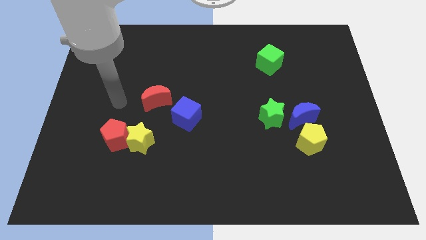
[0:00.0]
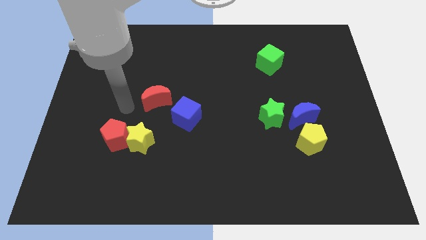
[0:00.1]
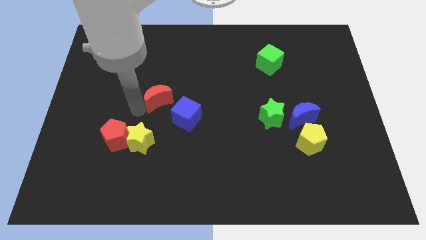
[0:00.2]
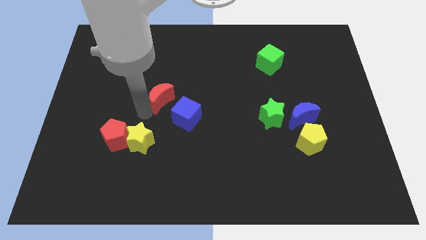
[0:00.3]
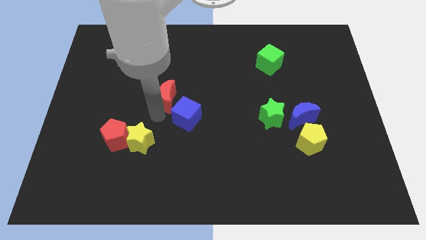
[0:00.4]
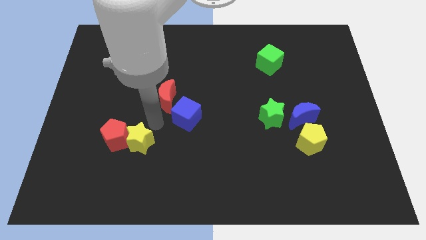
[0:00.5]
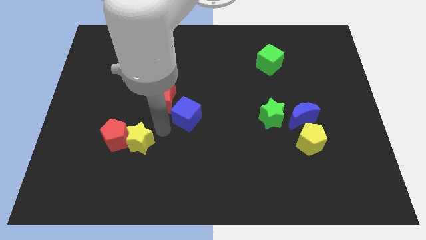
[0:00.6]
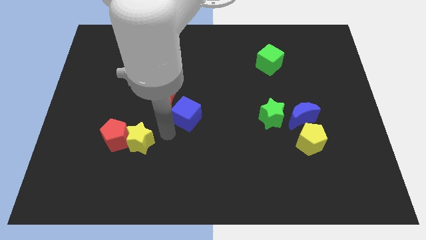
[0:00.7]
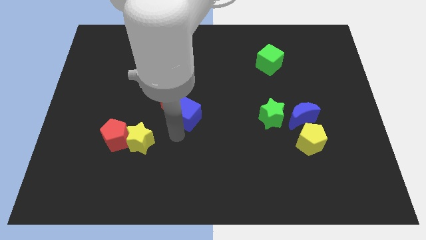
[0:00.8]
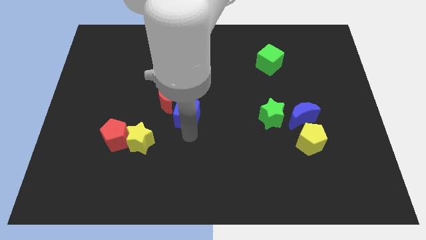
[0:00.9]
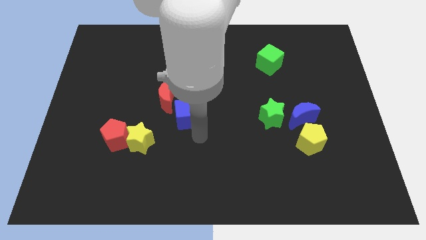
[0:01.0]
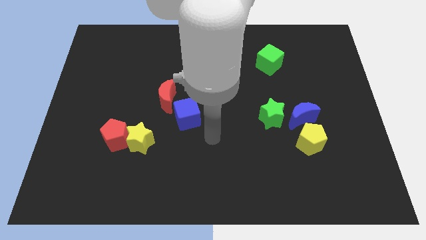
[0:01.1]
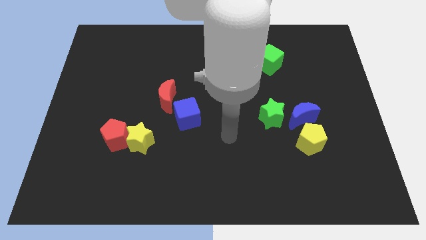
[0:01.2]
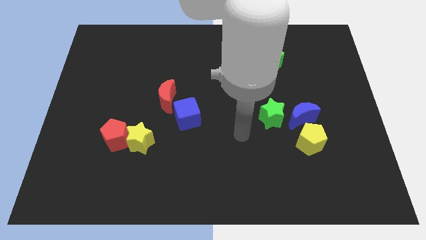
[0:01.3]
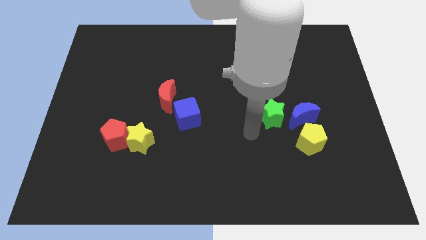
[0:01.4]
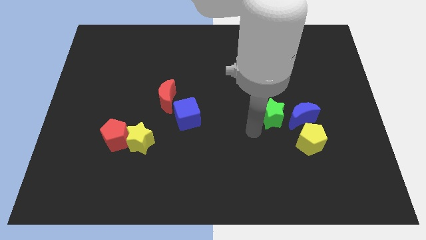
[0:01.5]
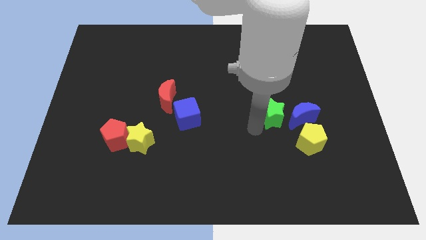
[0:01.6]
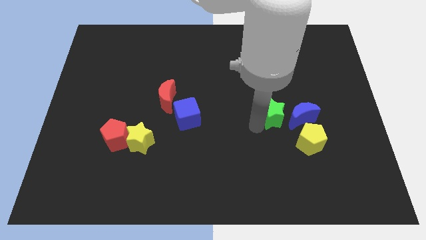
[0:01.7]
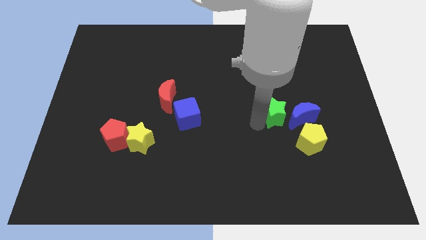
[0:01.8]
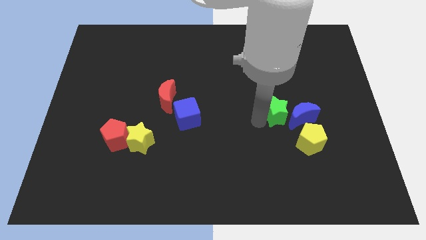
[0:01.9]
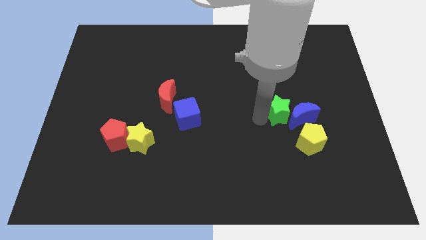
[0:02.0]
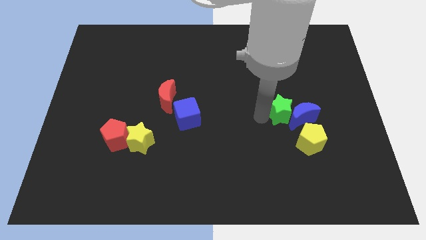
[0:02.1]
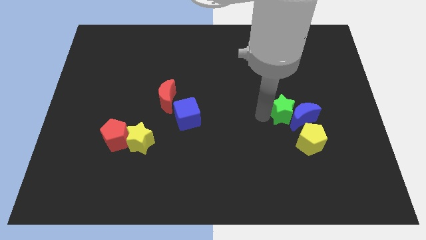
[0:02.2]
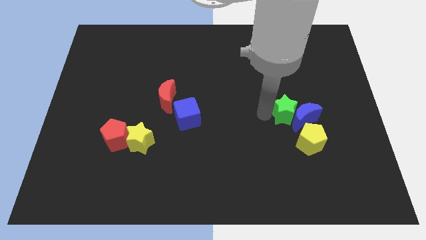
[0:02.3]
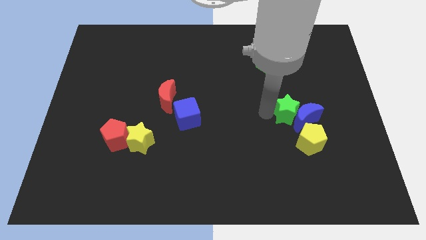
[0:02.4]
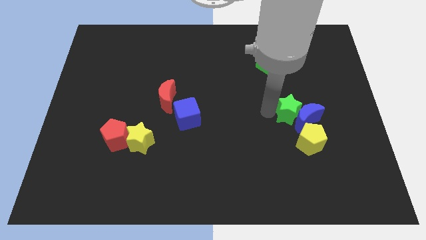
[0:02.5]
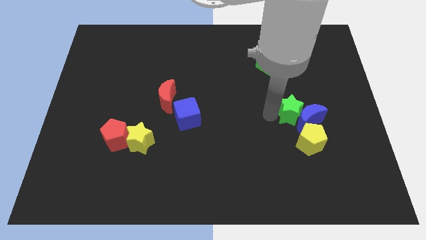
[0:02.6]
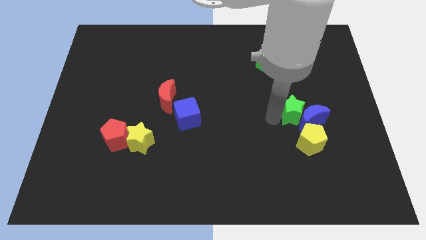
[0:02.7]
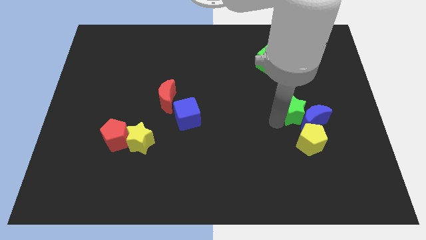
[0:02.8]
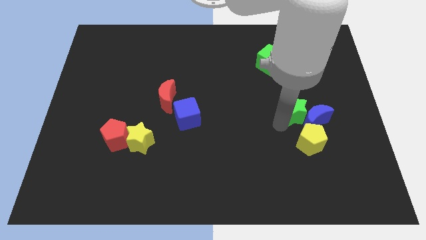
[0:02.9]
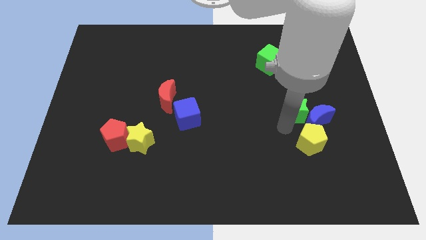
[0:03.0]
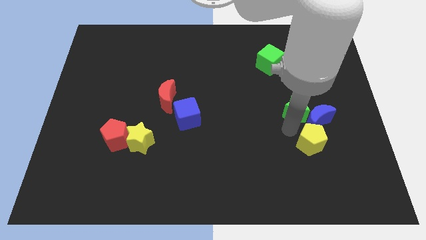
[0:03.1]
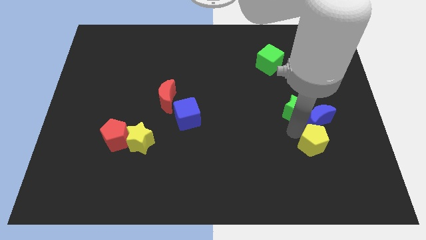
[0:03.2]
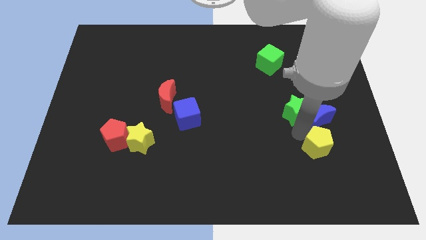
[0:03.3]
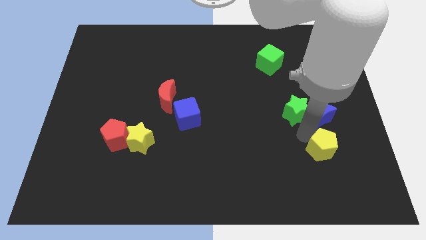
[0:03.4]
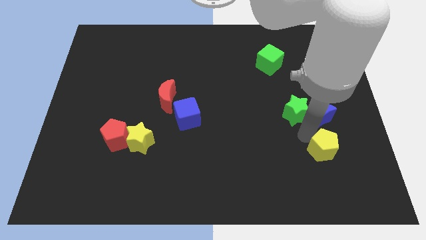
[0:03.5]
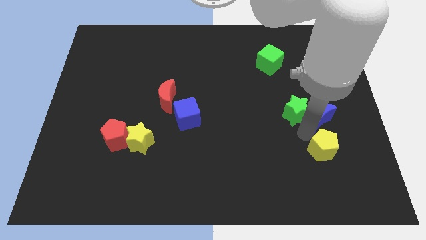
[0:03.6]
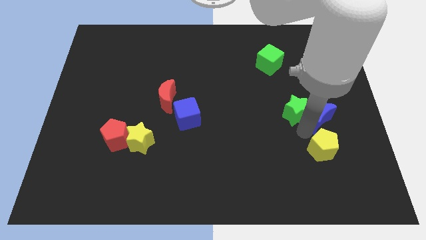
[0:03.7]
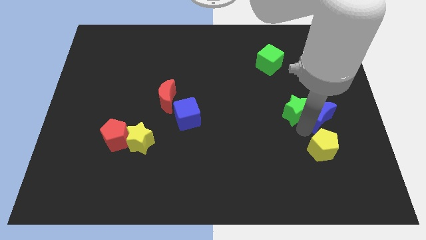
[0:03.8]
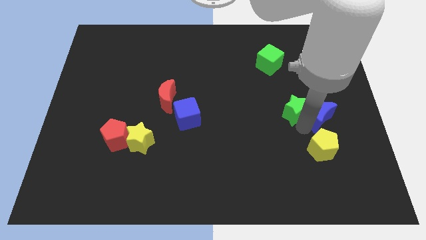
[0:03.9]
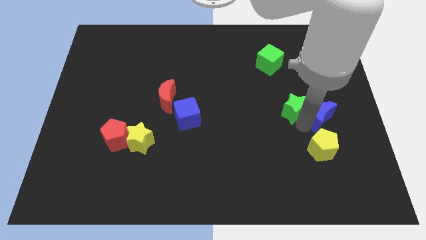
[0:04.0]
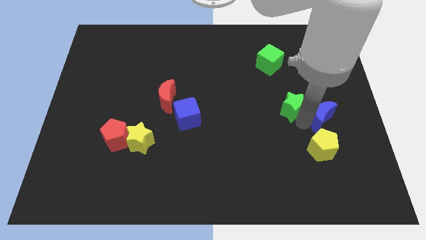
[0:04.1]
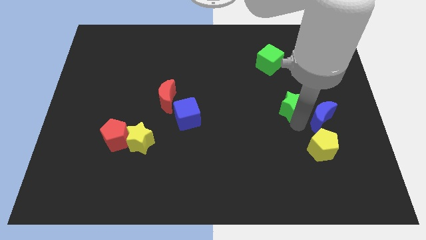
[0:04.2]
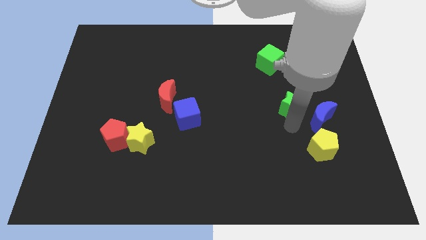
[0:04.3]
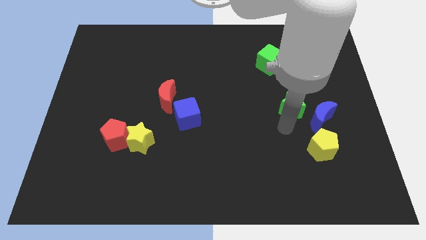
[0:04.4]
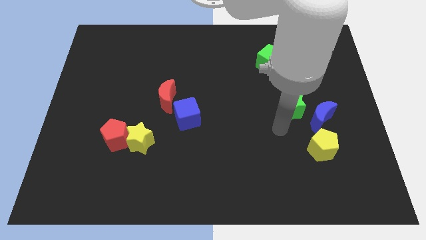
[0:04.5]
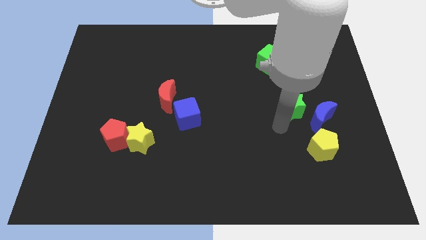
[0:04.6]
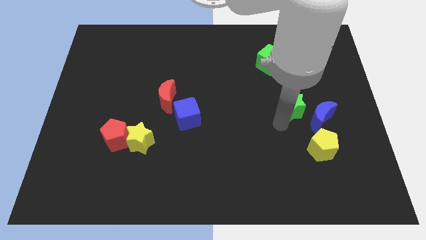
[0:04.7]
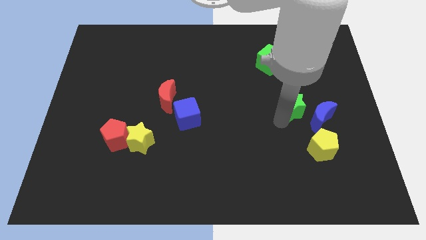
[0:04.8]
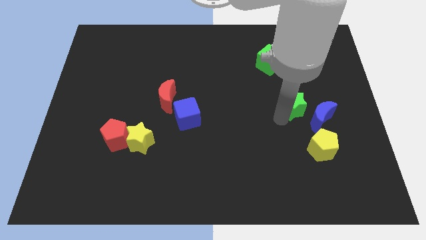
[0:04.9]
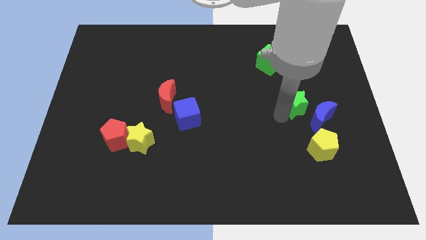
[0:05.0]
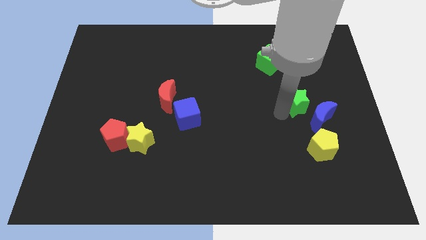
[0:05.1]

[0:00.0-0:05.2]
push the green star diagonally up and to the right slightly

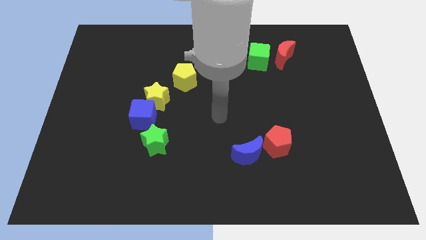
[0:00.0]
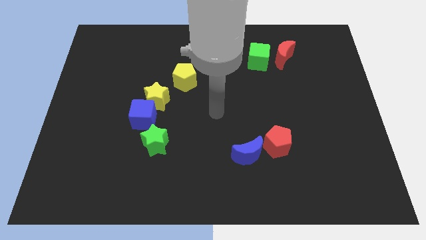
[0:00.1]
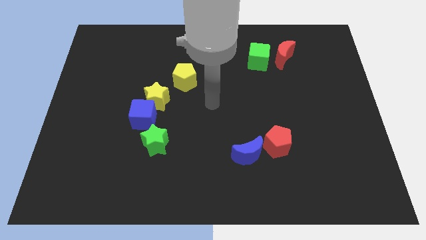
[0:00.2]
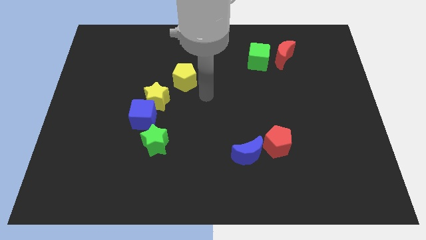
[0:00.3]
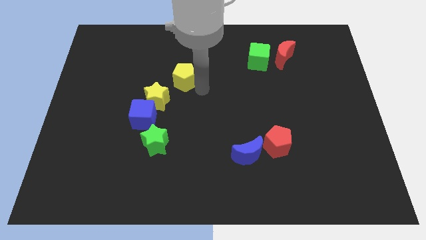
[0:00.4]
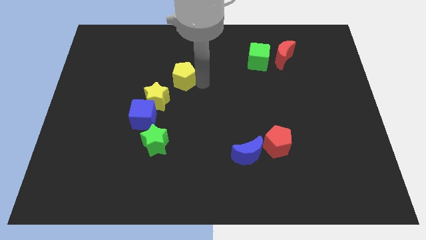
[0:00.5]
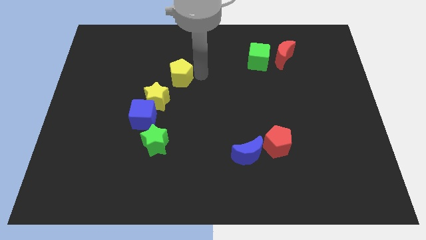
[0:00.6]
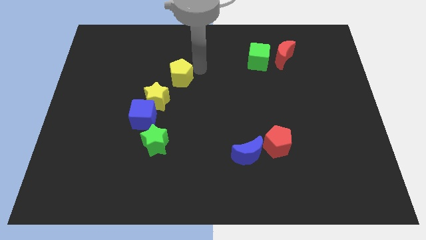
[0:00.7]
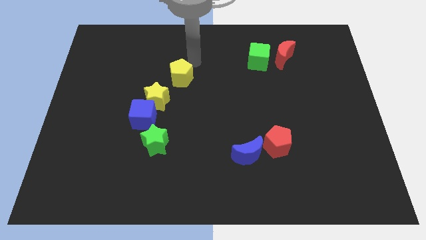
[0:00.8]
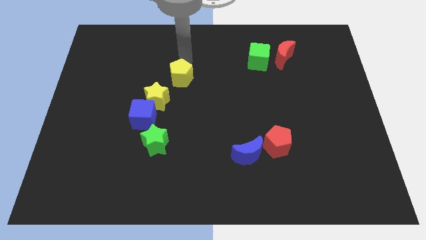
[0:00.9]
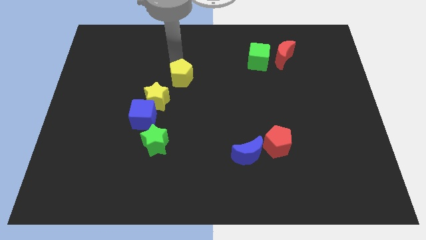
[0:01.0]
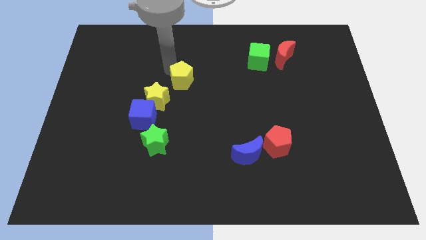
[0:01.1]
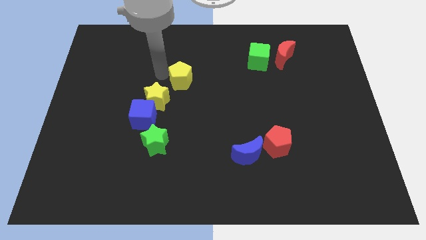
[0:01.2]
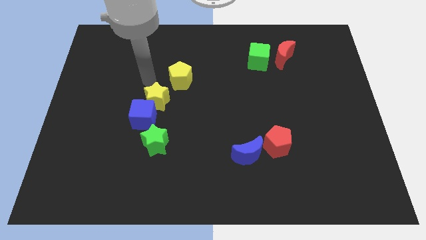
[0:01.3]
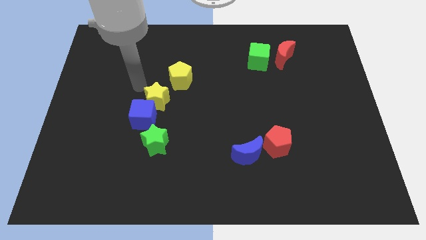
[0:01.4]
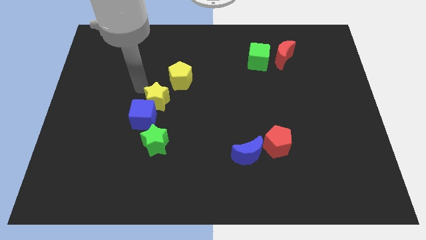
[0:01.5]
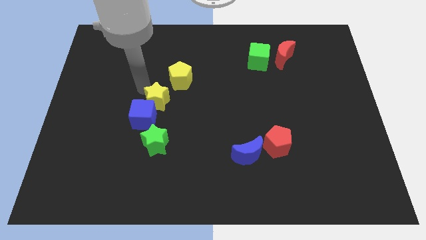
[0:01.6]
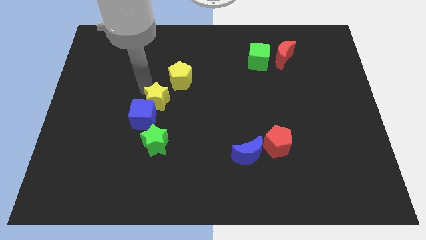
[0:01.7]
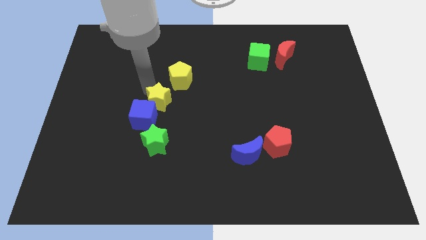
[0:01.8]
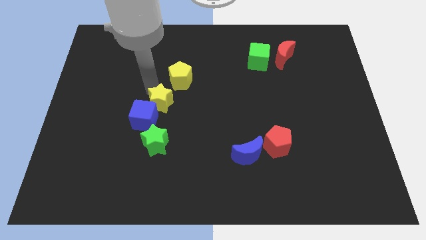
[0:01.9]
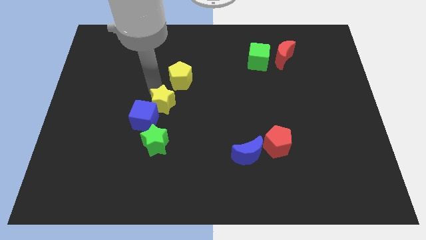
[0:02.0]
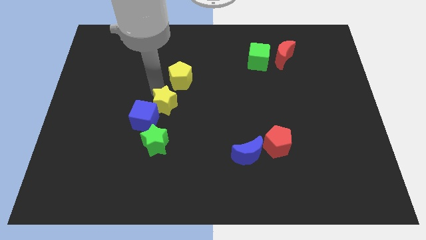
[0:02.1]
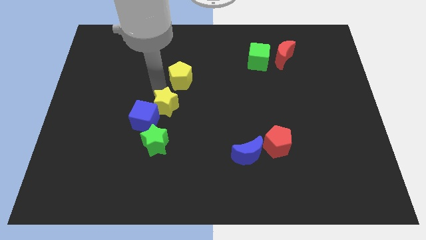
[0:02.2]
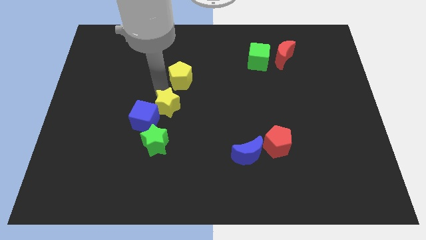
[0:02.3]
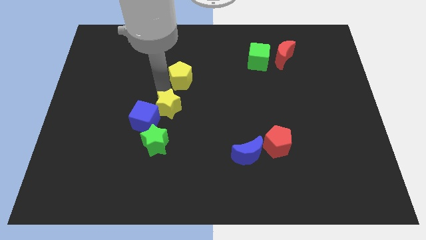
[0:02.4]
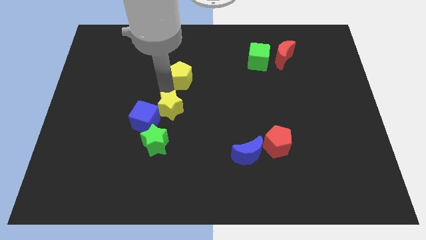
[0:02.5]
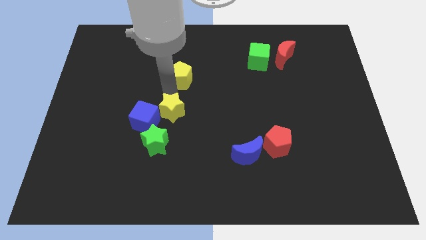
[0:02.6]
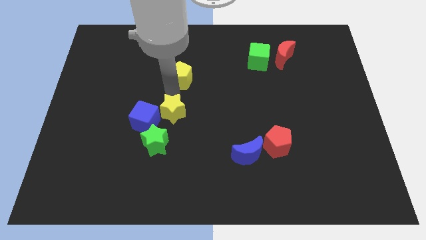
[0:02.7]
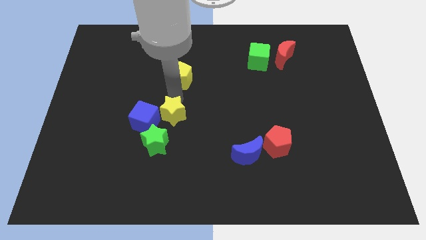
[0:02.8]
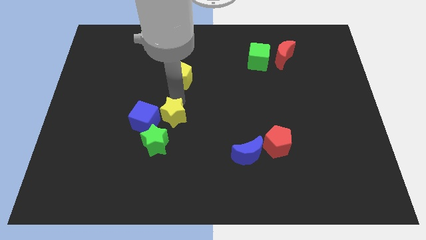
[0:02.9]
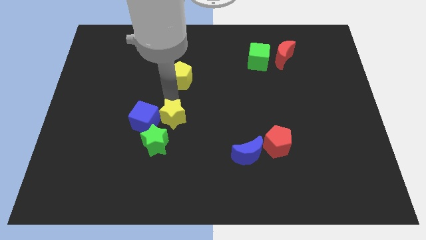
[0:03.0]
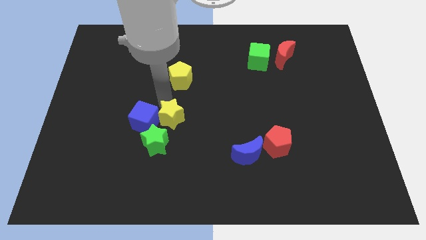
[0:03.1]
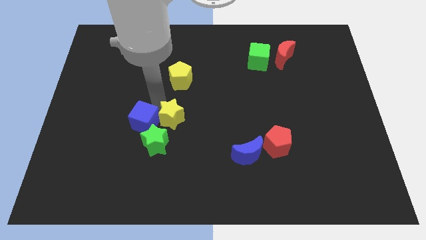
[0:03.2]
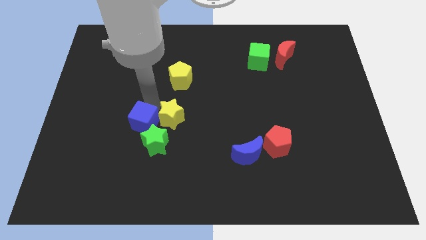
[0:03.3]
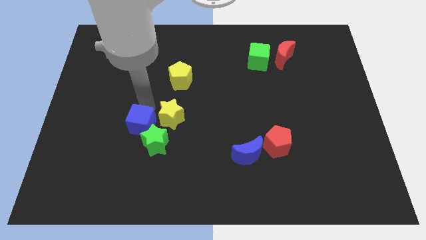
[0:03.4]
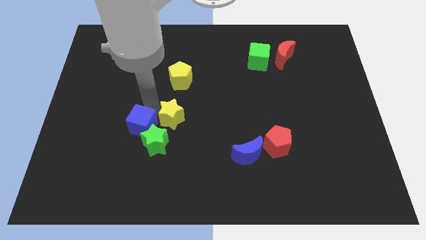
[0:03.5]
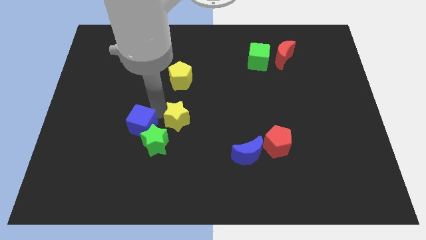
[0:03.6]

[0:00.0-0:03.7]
slightly move the yellow star downwards and right diagonally
